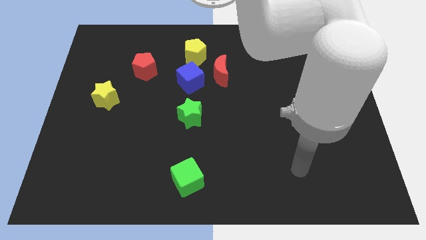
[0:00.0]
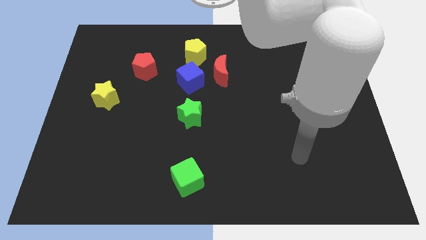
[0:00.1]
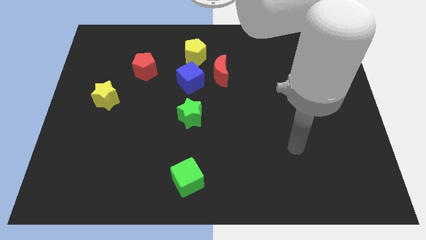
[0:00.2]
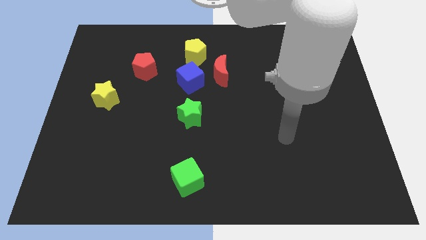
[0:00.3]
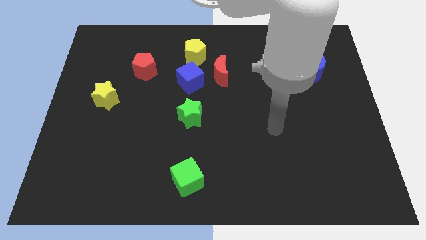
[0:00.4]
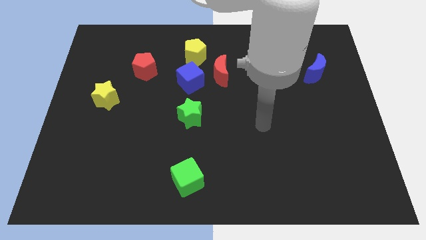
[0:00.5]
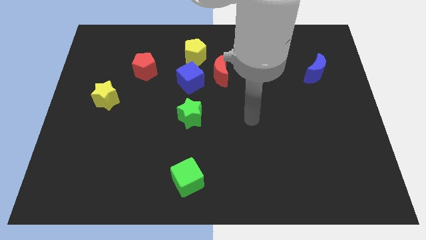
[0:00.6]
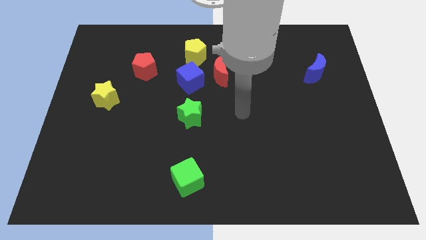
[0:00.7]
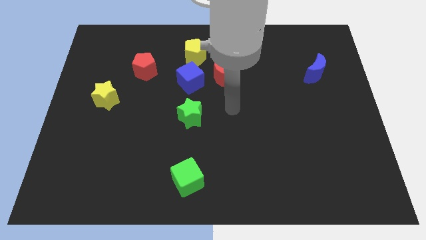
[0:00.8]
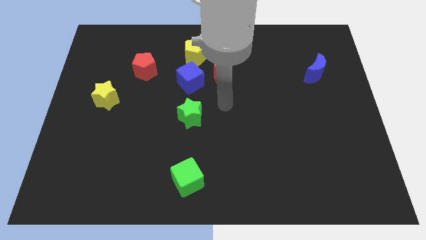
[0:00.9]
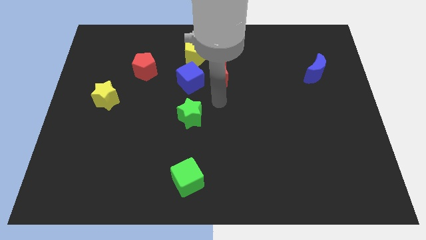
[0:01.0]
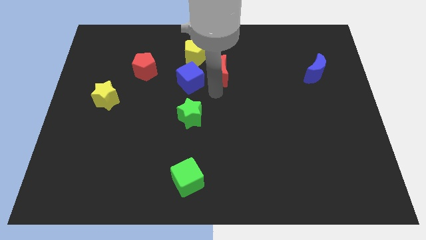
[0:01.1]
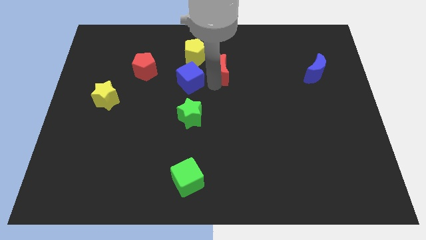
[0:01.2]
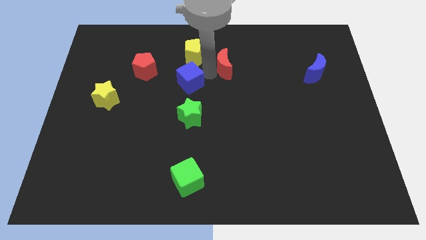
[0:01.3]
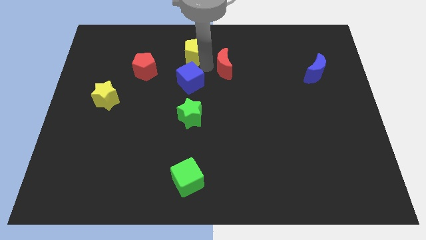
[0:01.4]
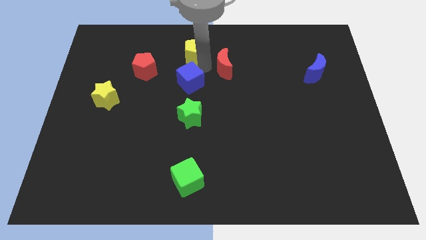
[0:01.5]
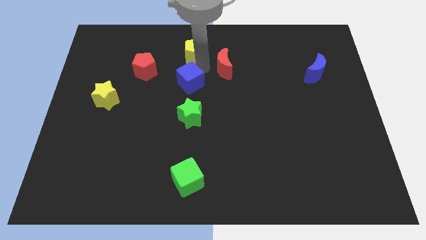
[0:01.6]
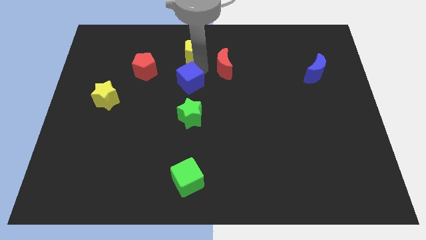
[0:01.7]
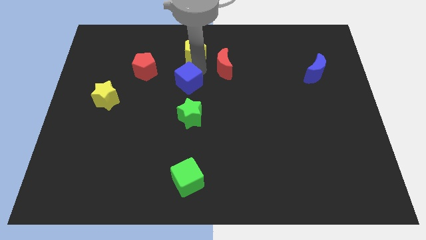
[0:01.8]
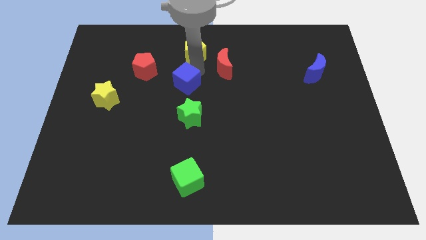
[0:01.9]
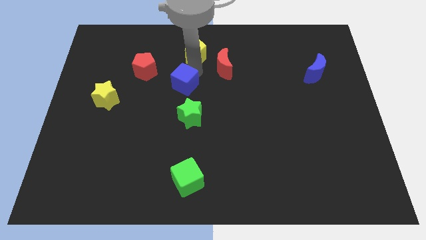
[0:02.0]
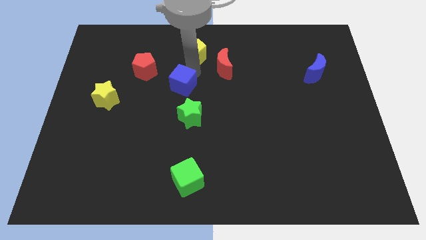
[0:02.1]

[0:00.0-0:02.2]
move the blue cube away from the red moon and yellow pentagon

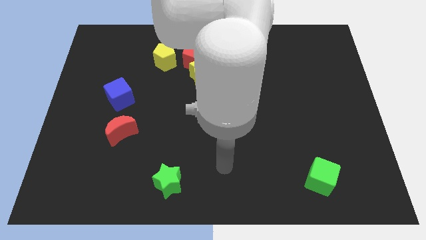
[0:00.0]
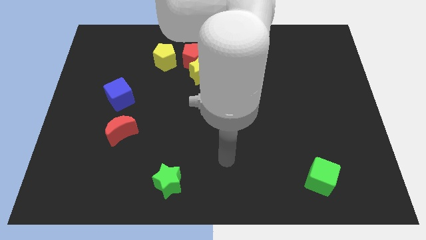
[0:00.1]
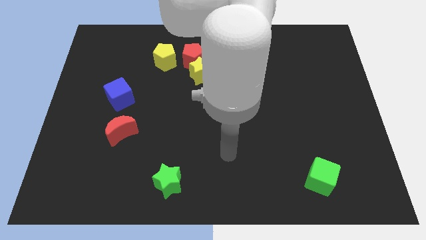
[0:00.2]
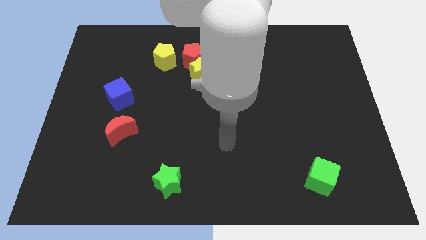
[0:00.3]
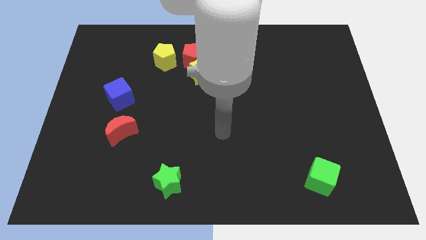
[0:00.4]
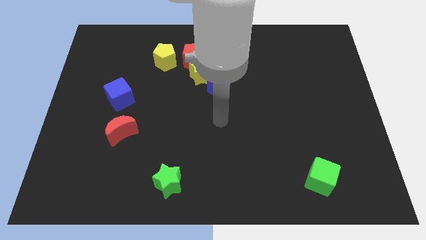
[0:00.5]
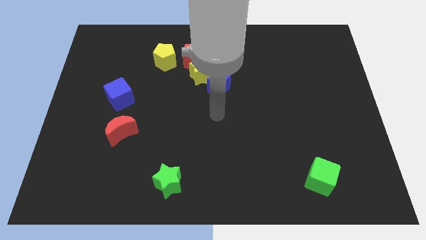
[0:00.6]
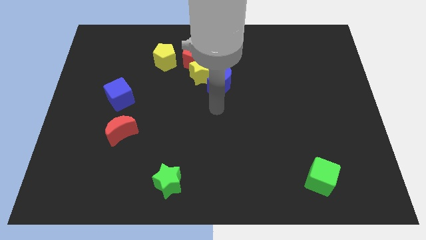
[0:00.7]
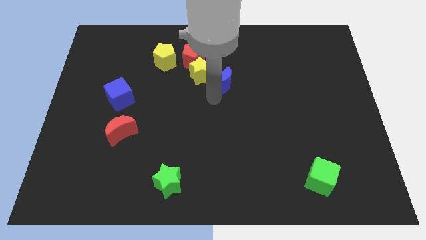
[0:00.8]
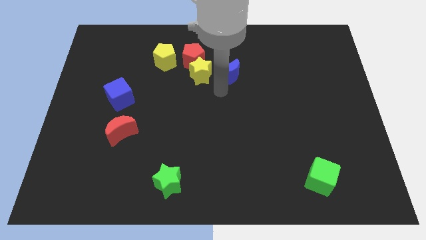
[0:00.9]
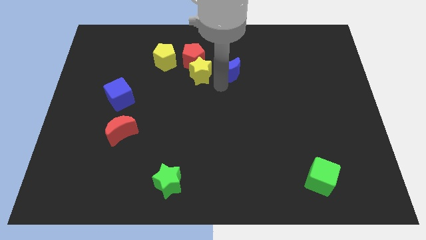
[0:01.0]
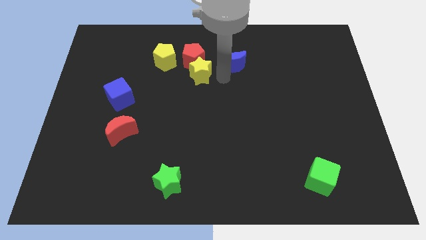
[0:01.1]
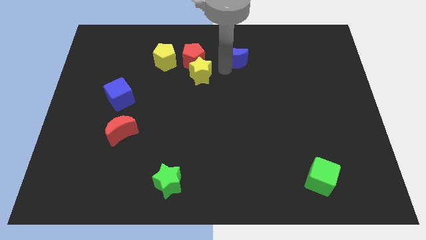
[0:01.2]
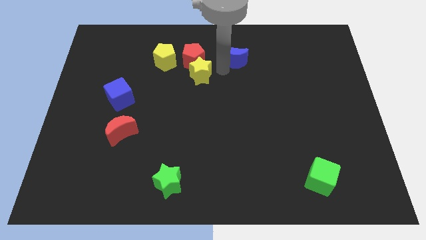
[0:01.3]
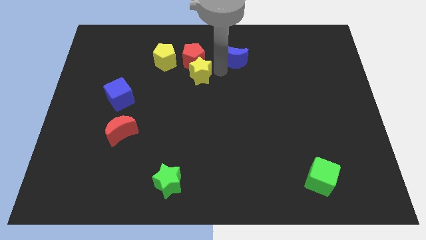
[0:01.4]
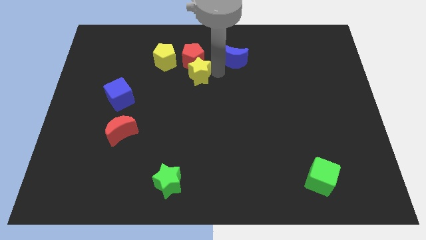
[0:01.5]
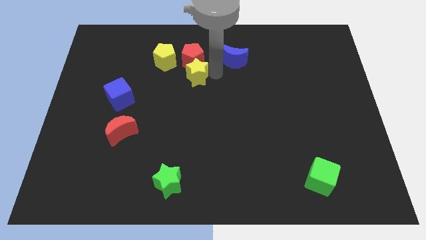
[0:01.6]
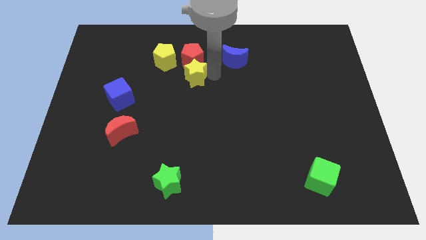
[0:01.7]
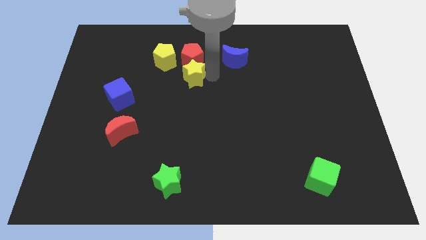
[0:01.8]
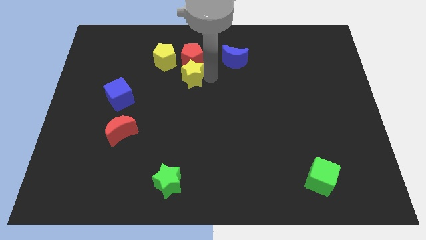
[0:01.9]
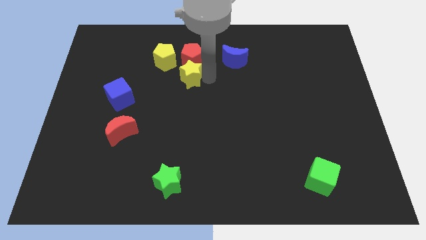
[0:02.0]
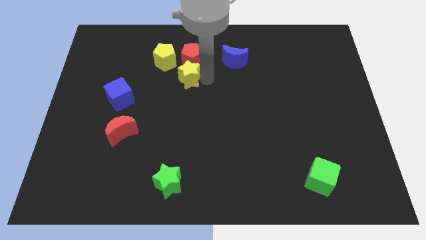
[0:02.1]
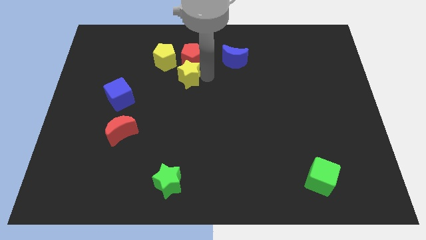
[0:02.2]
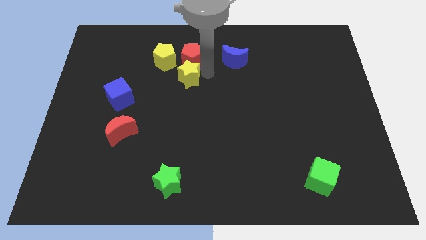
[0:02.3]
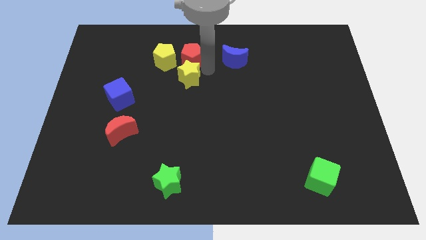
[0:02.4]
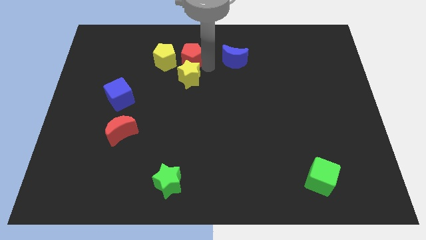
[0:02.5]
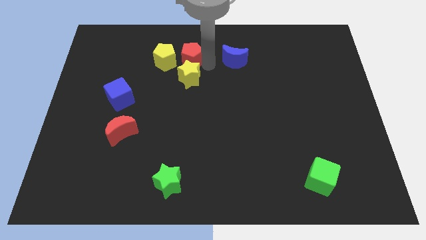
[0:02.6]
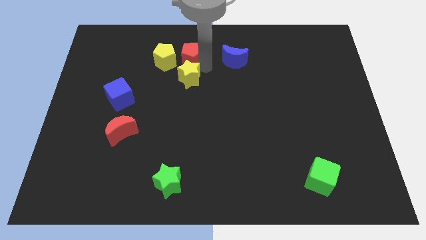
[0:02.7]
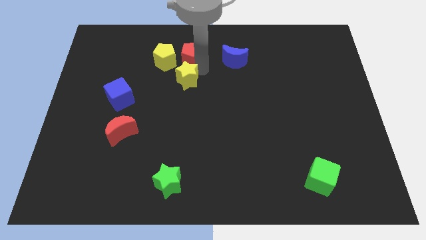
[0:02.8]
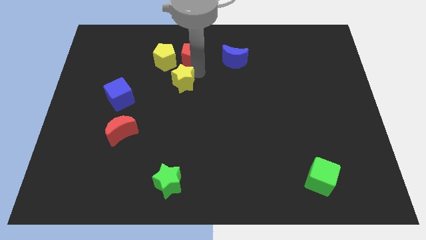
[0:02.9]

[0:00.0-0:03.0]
move the yellow star away from the red pentagon and blue moon

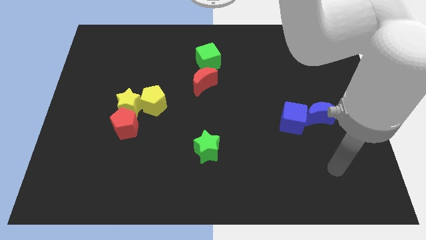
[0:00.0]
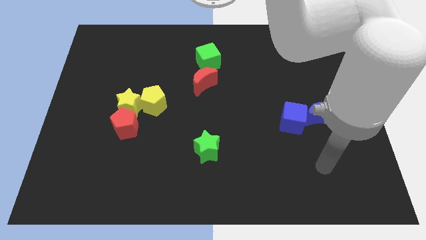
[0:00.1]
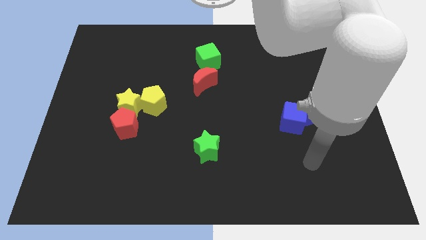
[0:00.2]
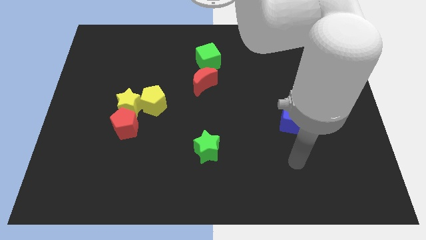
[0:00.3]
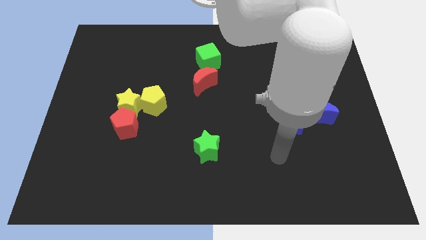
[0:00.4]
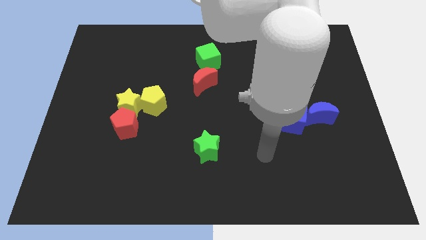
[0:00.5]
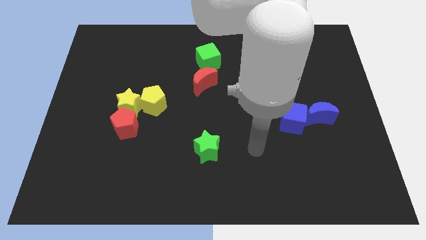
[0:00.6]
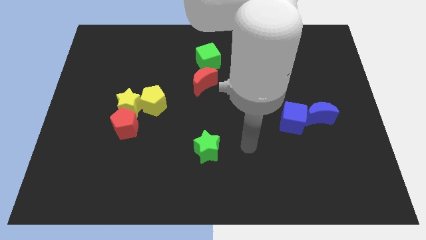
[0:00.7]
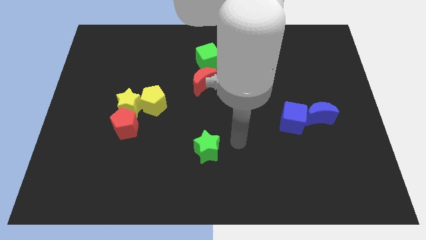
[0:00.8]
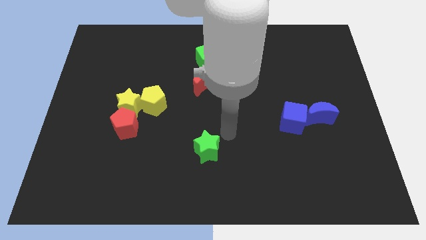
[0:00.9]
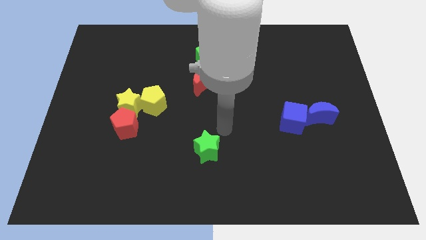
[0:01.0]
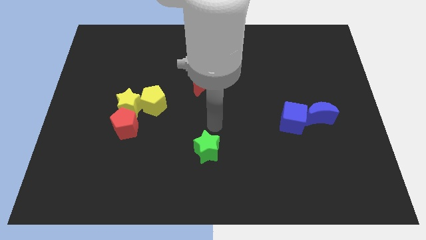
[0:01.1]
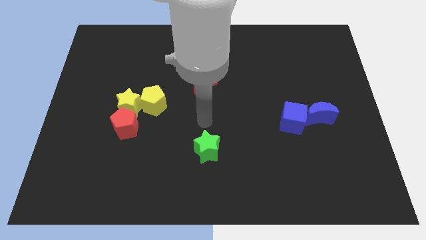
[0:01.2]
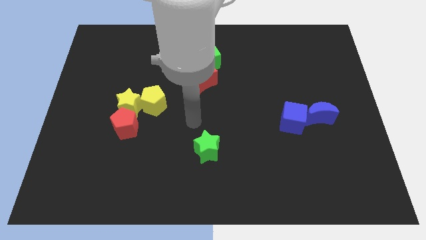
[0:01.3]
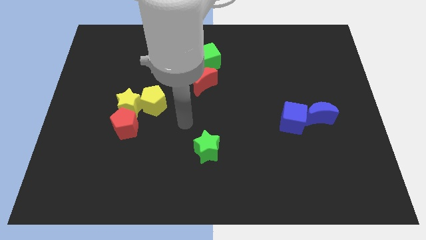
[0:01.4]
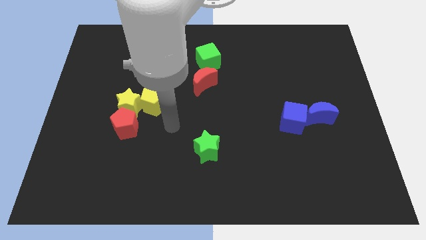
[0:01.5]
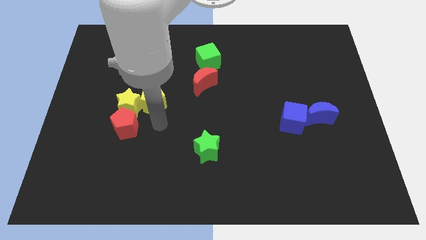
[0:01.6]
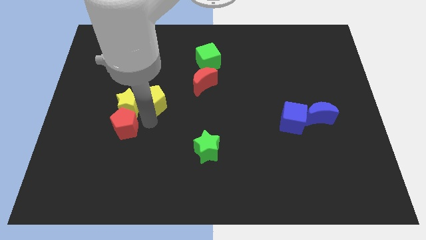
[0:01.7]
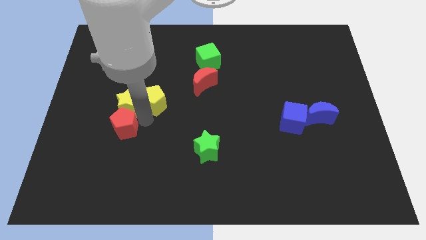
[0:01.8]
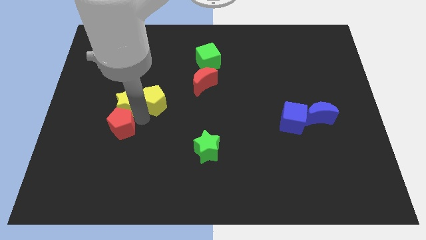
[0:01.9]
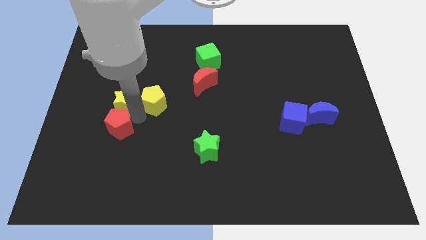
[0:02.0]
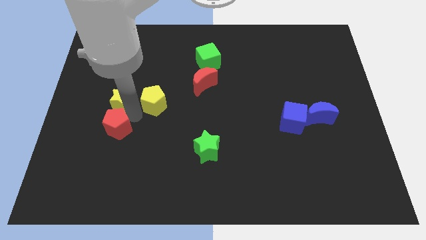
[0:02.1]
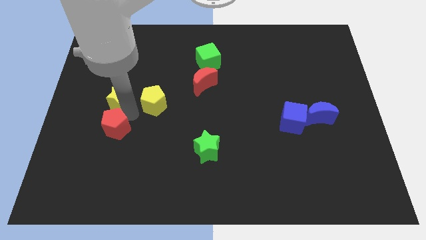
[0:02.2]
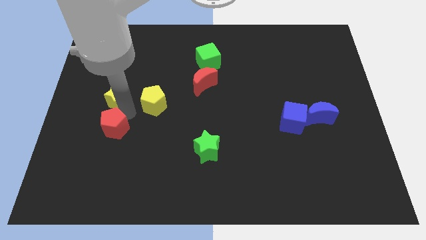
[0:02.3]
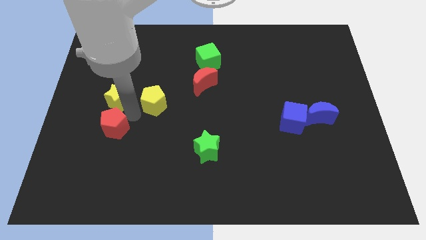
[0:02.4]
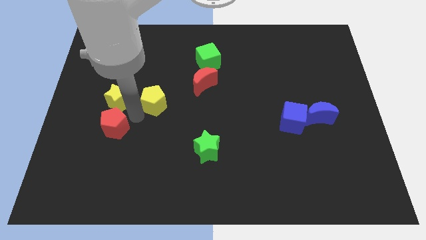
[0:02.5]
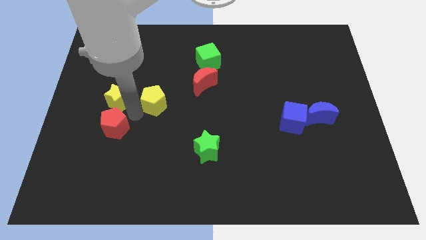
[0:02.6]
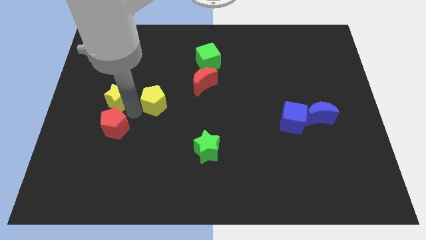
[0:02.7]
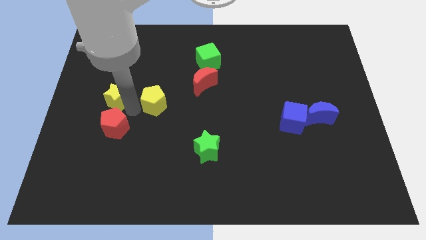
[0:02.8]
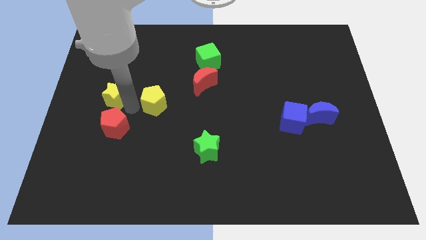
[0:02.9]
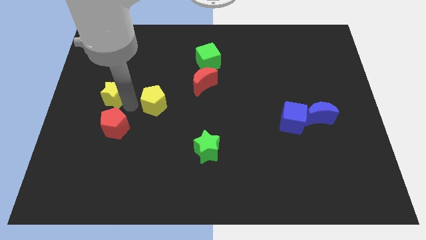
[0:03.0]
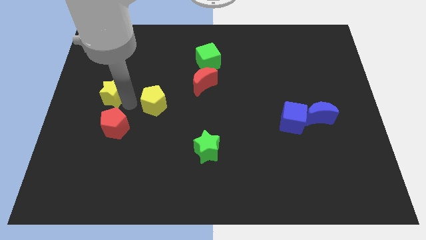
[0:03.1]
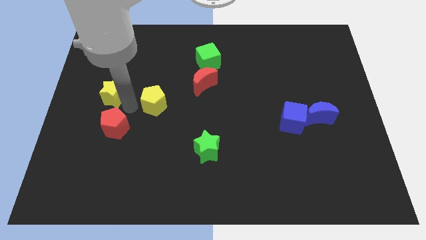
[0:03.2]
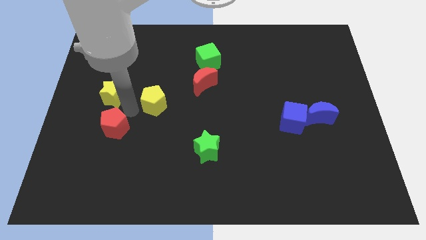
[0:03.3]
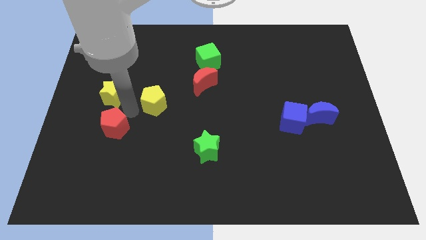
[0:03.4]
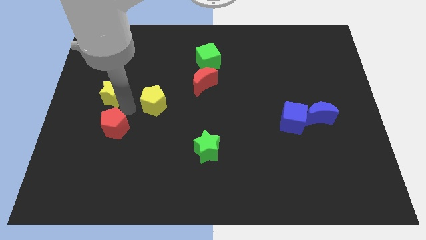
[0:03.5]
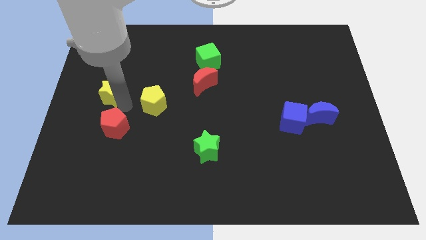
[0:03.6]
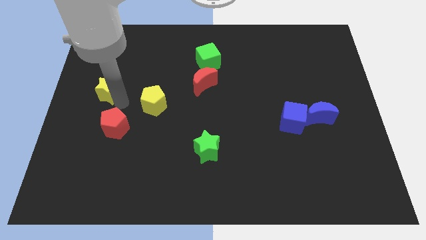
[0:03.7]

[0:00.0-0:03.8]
move the yellow star away from the red pentagon and yellow pentagon

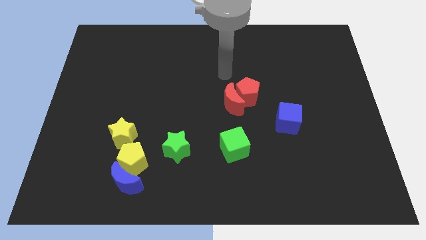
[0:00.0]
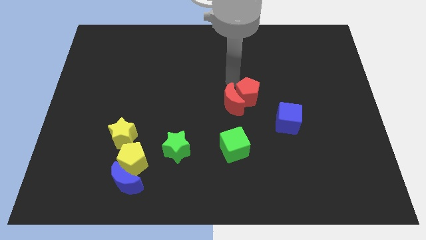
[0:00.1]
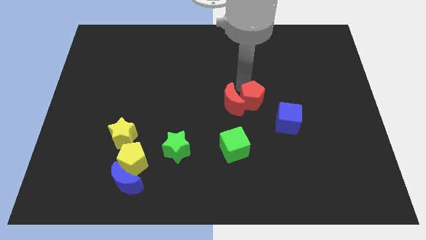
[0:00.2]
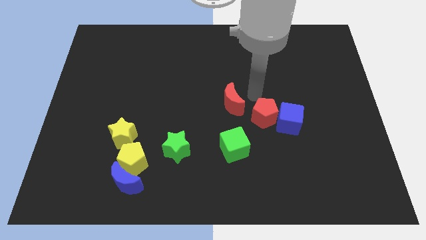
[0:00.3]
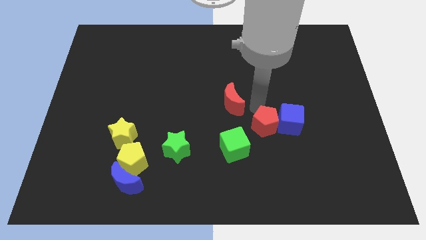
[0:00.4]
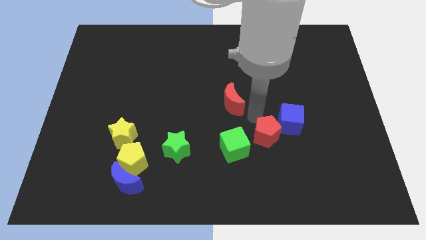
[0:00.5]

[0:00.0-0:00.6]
move the red moon away from the red pentagon
